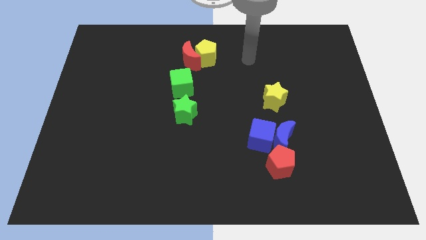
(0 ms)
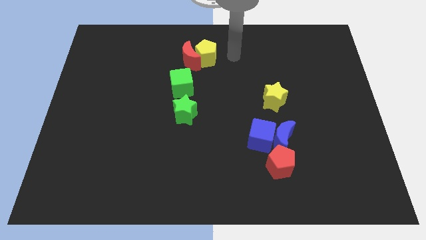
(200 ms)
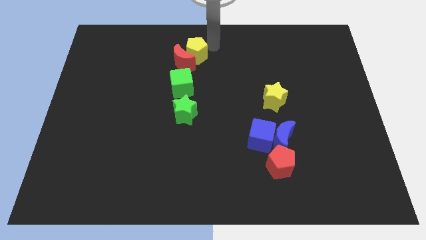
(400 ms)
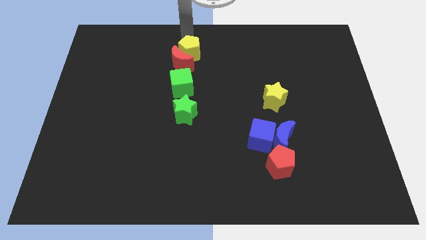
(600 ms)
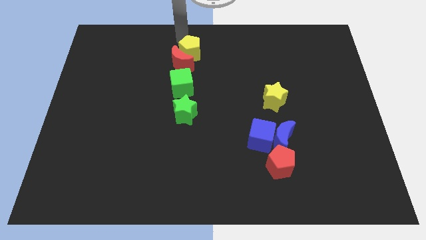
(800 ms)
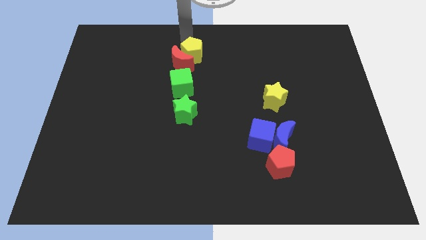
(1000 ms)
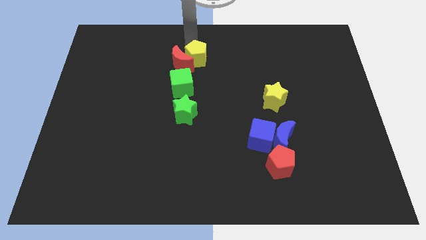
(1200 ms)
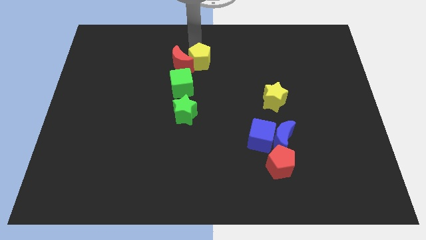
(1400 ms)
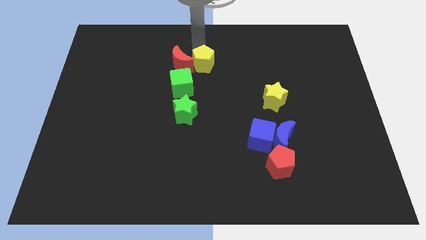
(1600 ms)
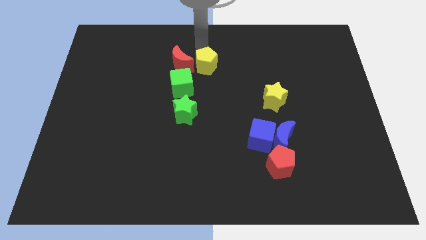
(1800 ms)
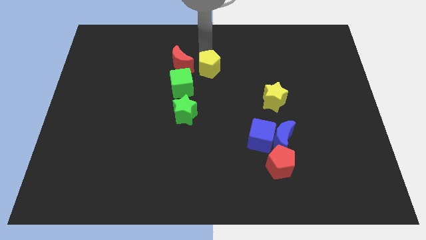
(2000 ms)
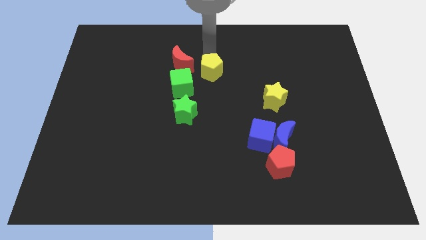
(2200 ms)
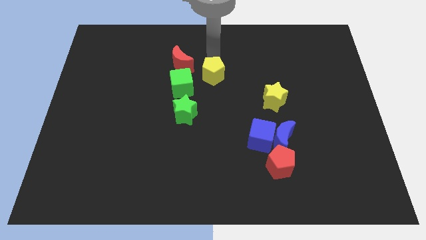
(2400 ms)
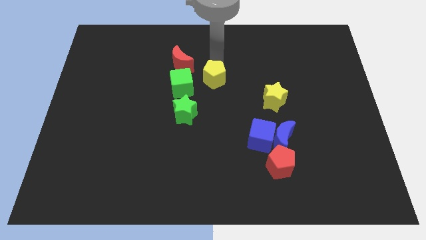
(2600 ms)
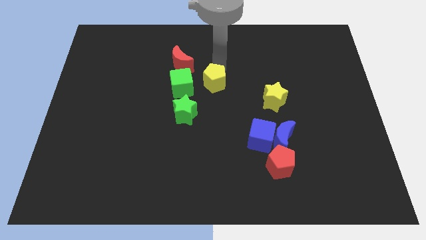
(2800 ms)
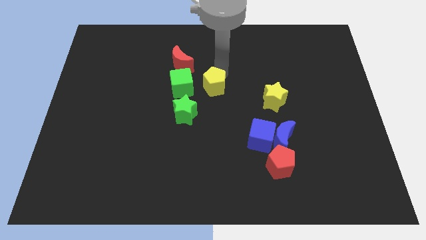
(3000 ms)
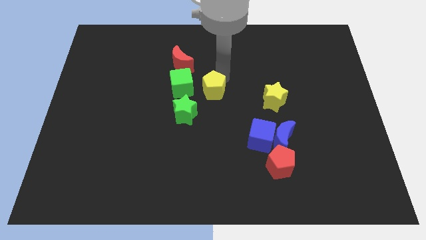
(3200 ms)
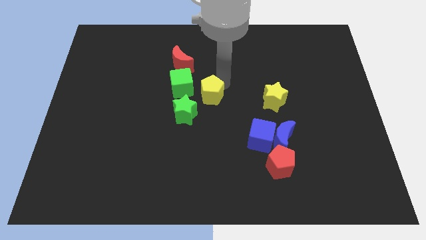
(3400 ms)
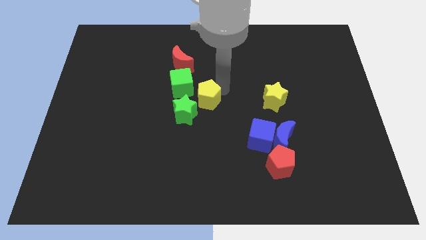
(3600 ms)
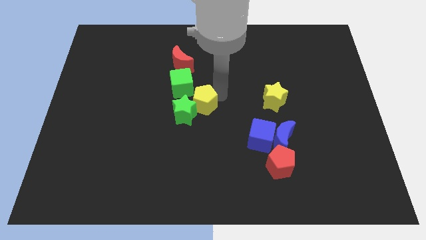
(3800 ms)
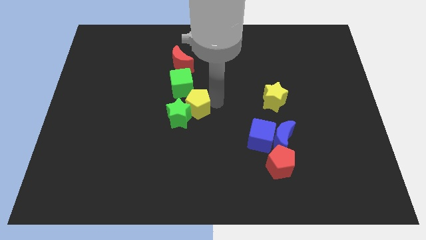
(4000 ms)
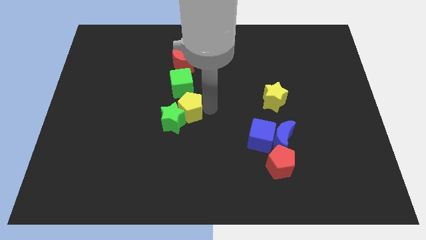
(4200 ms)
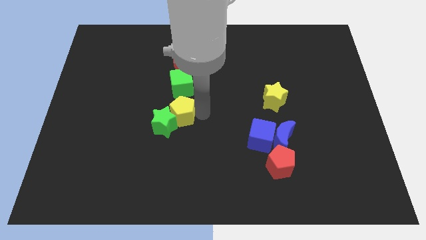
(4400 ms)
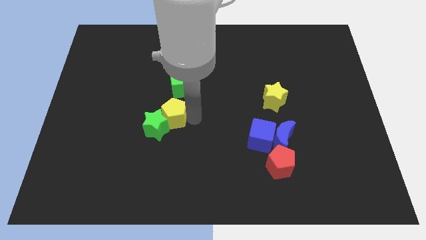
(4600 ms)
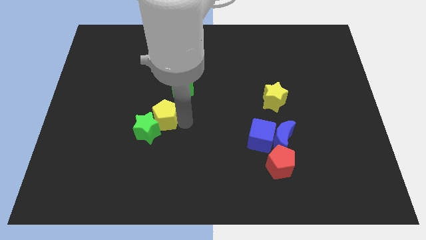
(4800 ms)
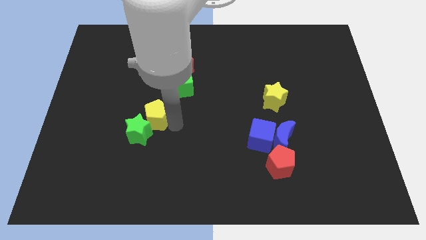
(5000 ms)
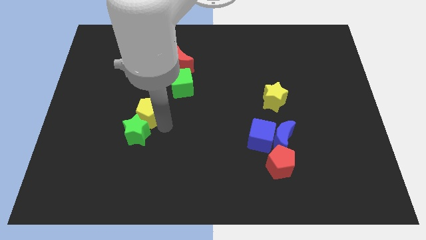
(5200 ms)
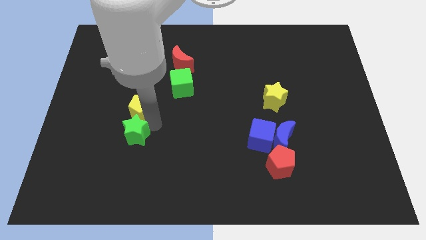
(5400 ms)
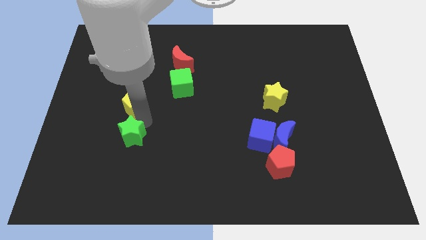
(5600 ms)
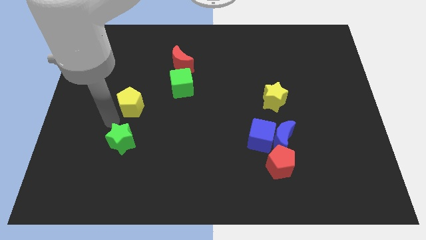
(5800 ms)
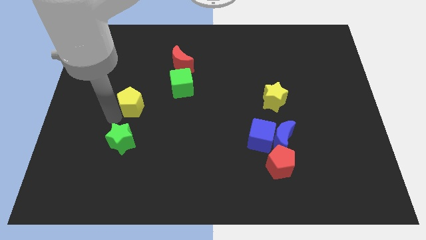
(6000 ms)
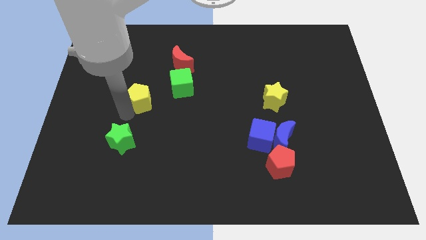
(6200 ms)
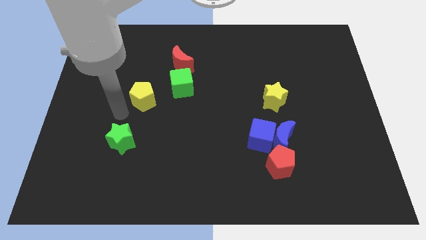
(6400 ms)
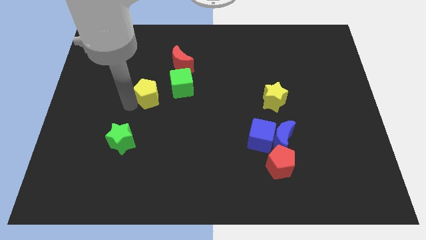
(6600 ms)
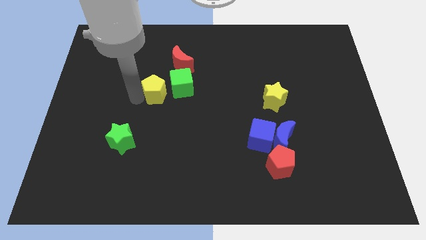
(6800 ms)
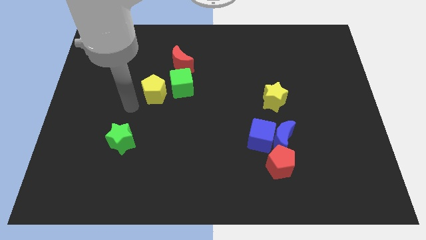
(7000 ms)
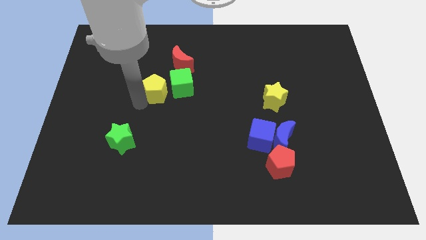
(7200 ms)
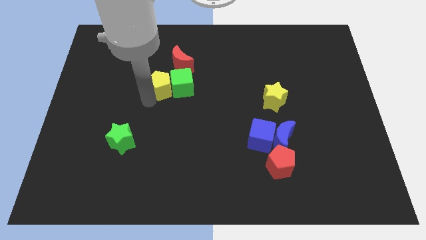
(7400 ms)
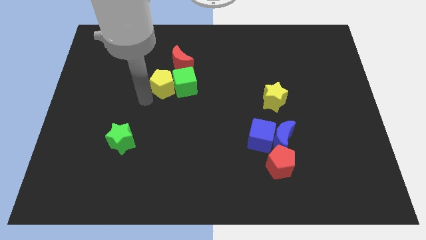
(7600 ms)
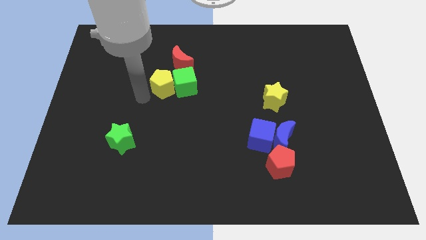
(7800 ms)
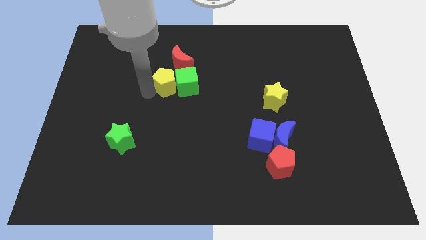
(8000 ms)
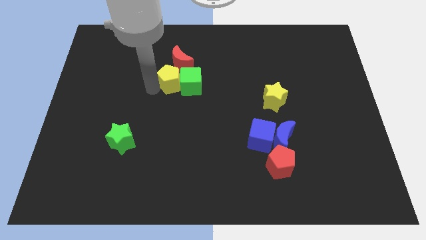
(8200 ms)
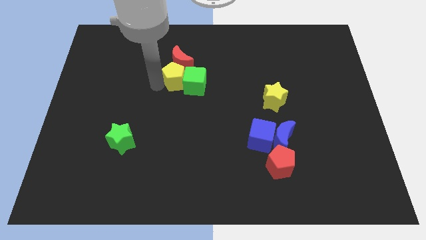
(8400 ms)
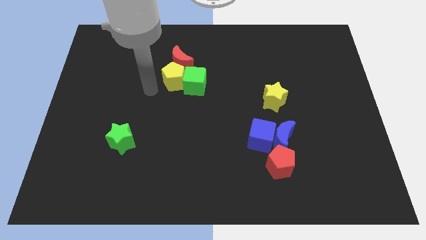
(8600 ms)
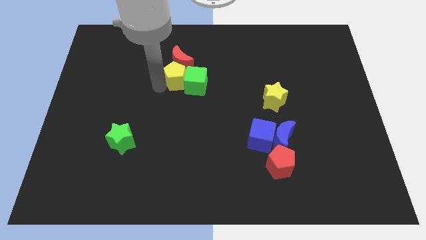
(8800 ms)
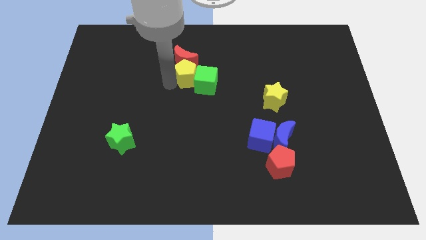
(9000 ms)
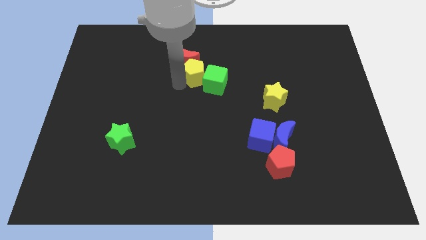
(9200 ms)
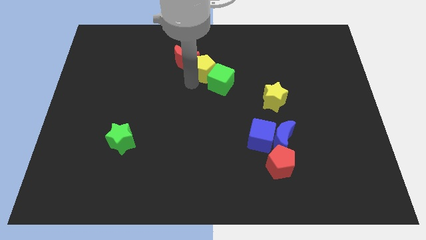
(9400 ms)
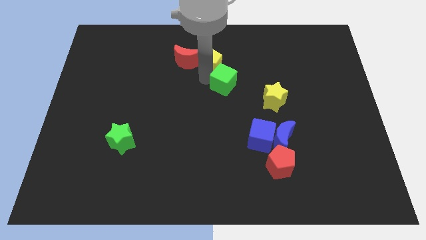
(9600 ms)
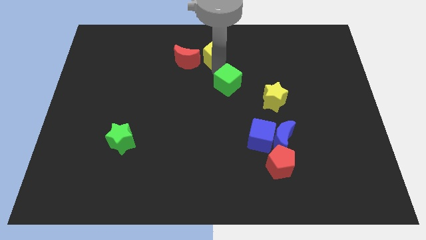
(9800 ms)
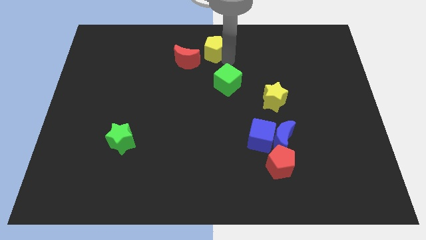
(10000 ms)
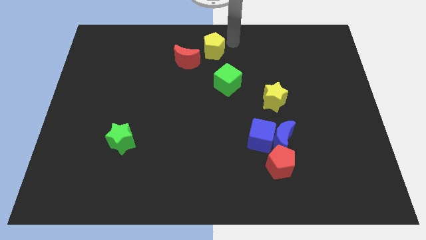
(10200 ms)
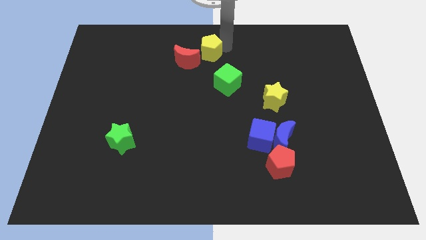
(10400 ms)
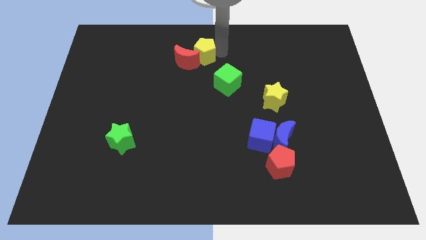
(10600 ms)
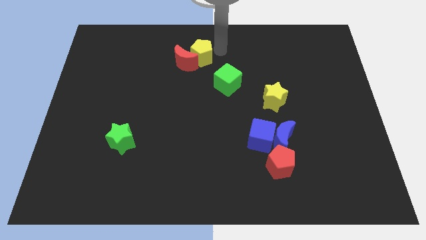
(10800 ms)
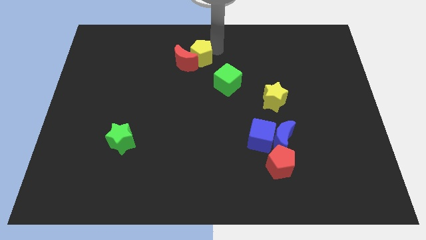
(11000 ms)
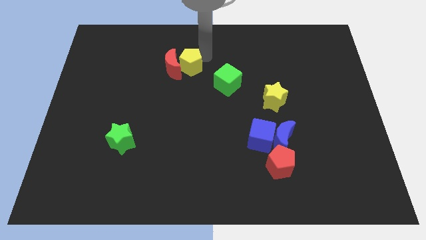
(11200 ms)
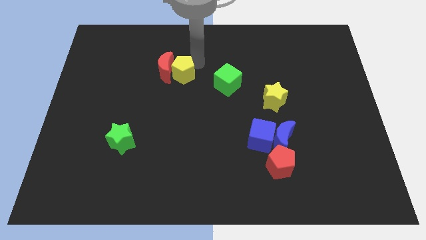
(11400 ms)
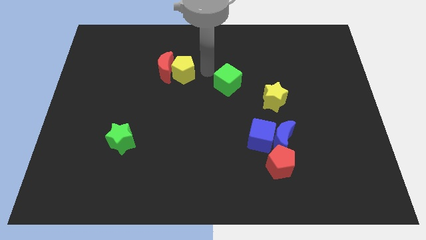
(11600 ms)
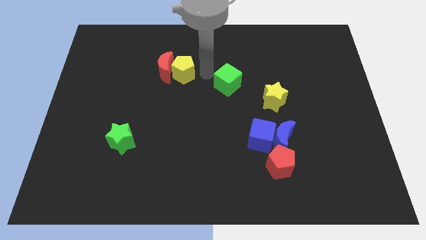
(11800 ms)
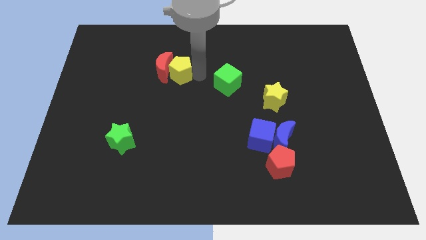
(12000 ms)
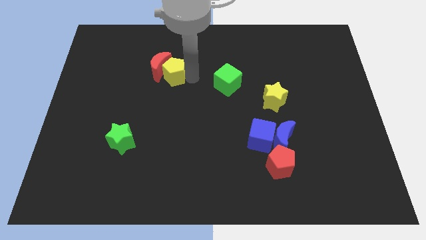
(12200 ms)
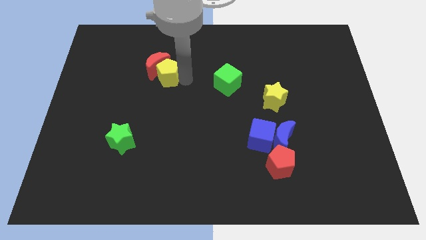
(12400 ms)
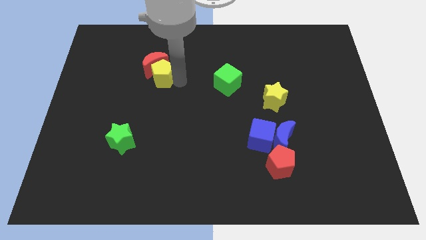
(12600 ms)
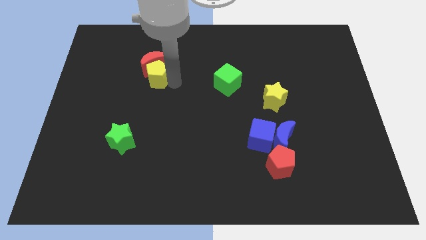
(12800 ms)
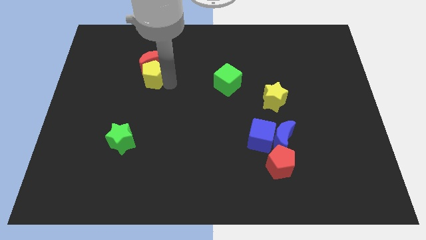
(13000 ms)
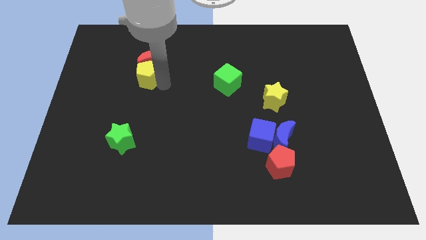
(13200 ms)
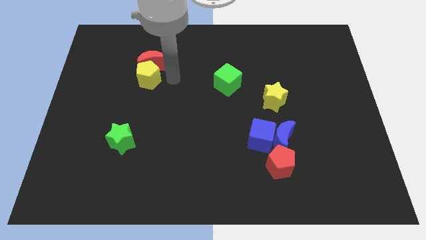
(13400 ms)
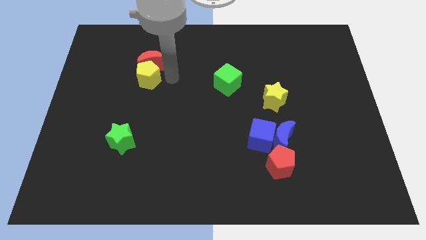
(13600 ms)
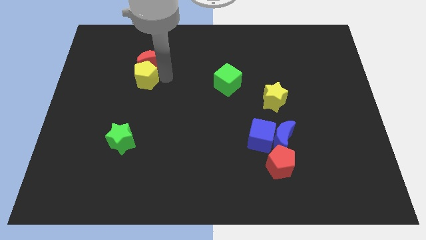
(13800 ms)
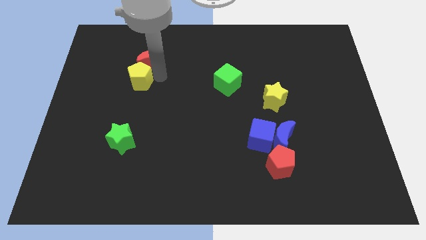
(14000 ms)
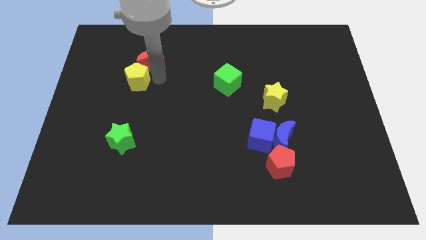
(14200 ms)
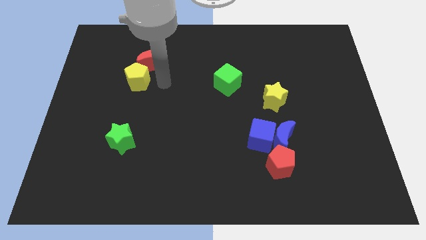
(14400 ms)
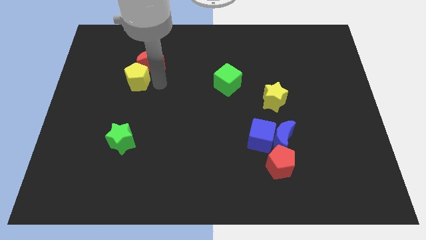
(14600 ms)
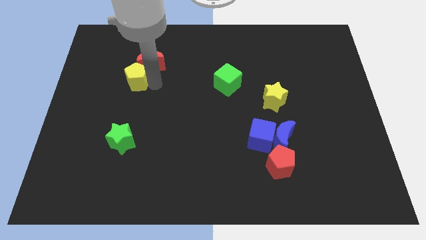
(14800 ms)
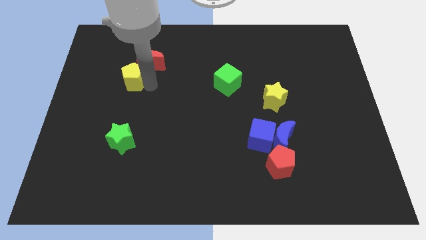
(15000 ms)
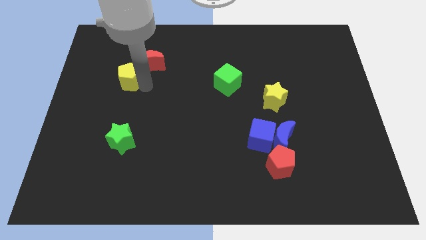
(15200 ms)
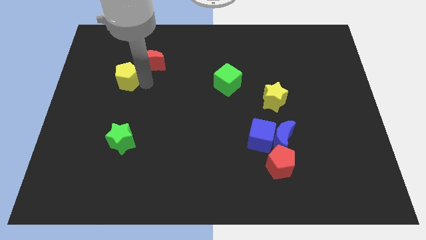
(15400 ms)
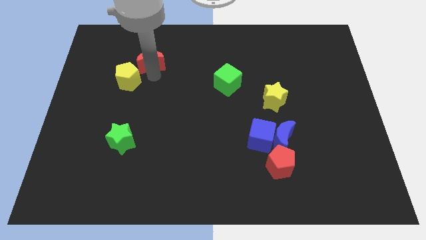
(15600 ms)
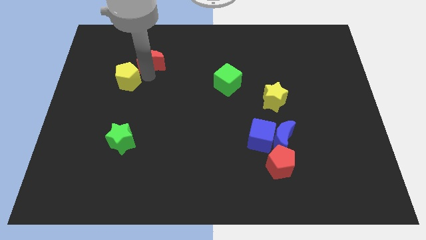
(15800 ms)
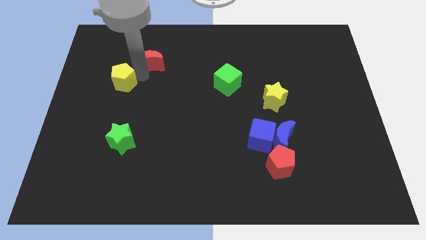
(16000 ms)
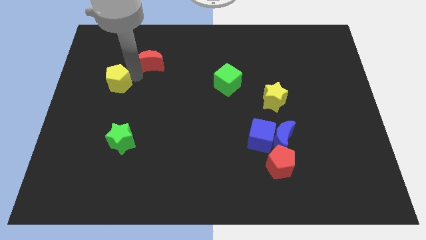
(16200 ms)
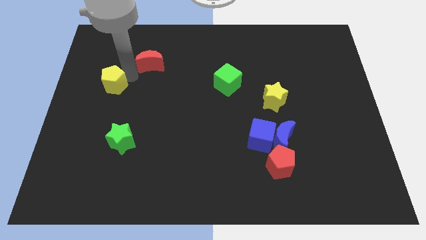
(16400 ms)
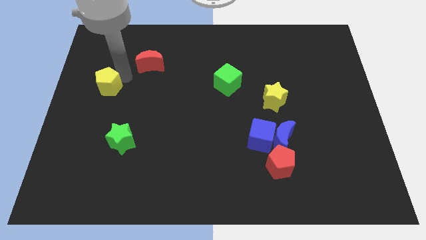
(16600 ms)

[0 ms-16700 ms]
put the yellow pentagon to the left side of the board
